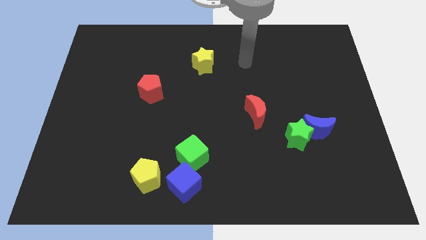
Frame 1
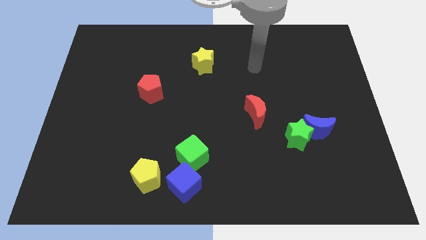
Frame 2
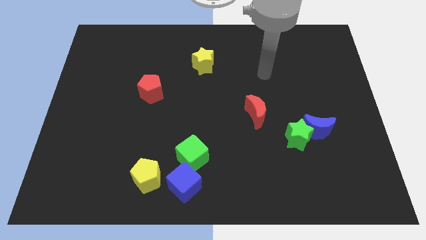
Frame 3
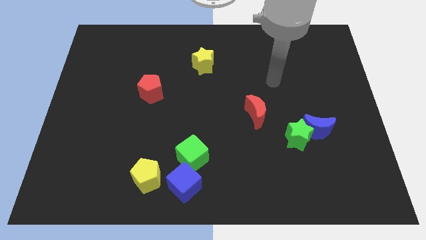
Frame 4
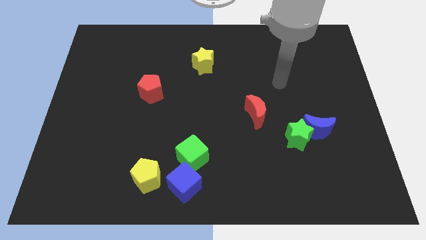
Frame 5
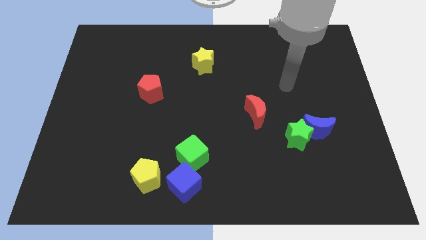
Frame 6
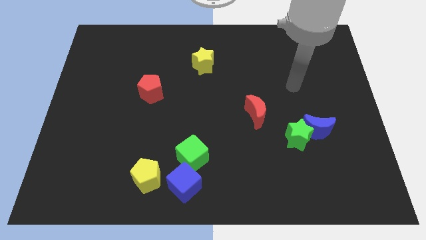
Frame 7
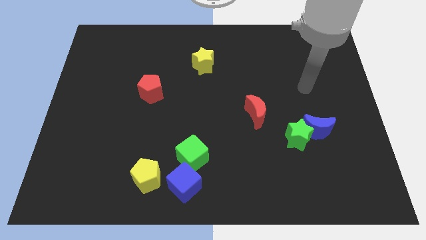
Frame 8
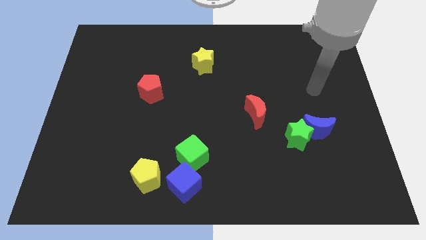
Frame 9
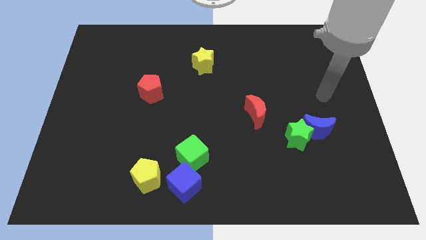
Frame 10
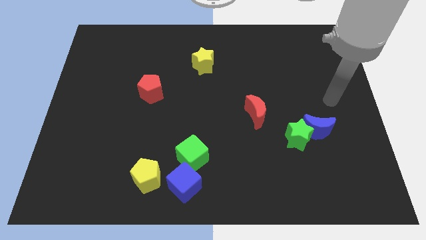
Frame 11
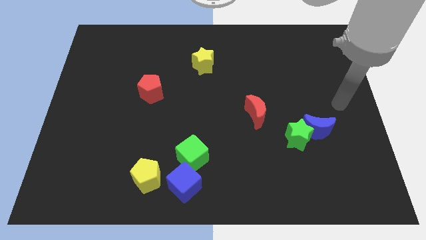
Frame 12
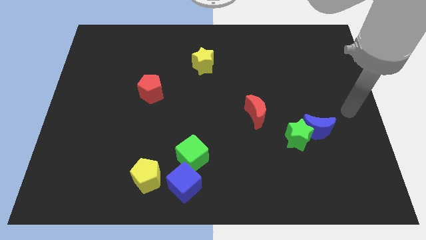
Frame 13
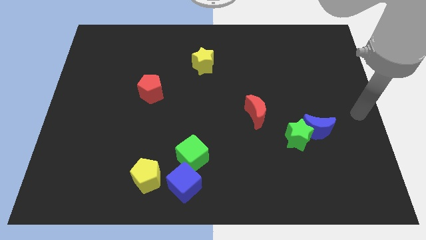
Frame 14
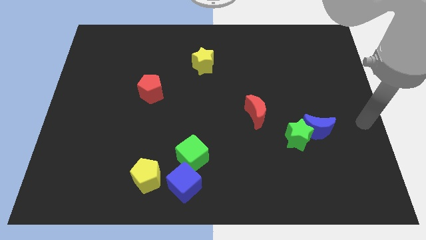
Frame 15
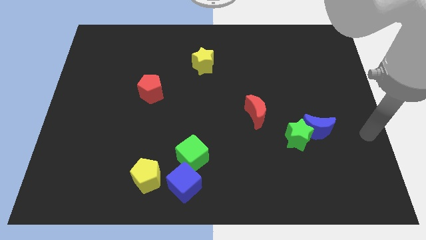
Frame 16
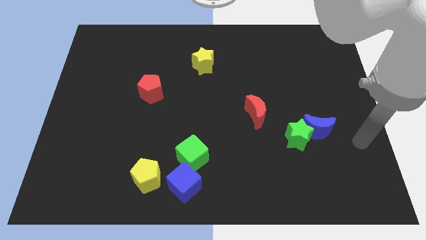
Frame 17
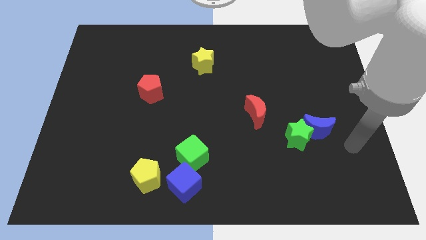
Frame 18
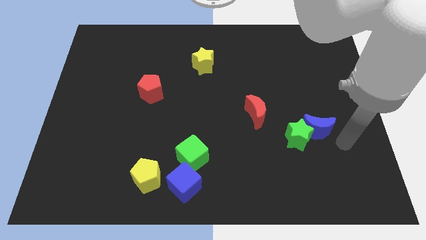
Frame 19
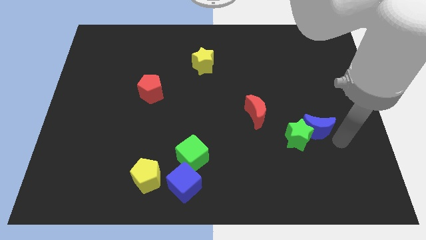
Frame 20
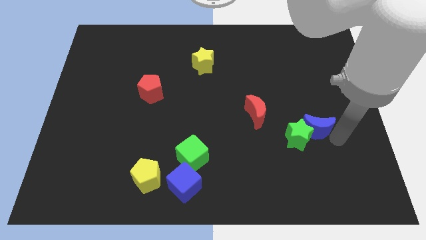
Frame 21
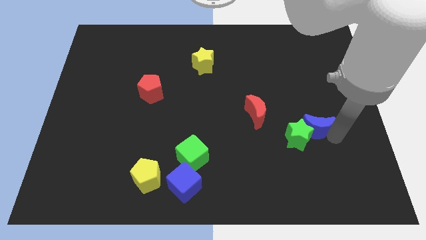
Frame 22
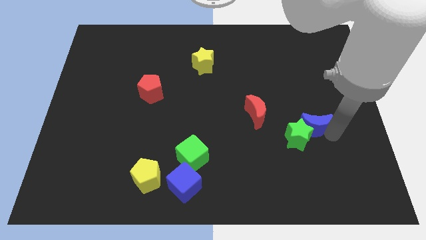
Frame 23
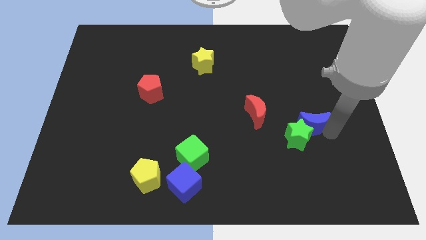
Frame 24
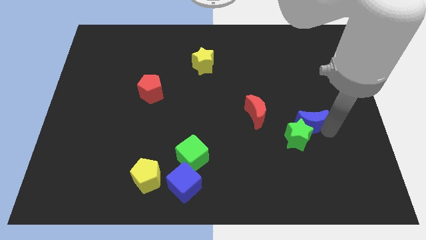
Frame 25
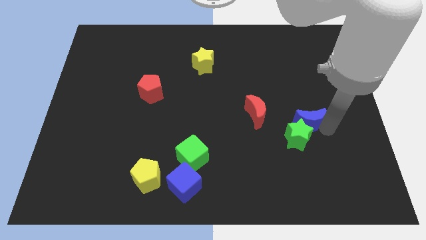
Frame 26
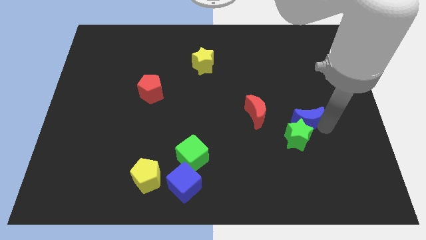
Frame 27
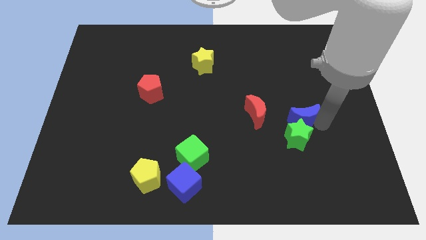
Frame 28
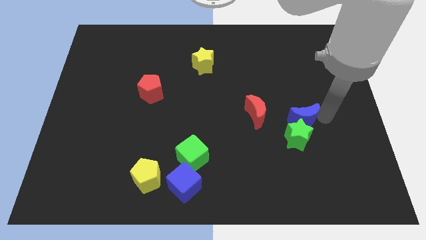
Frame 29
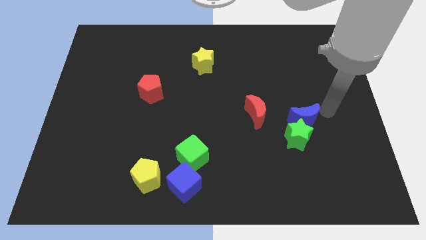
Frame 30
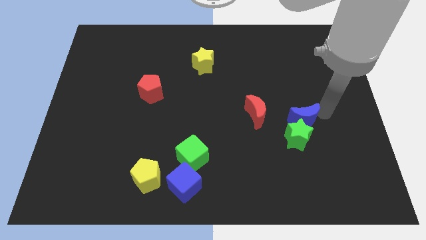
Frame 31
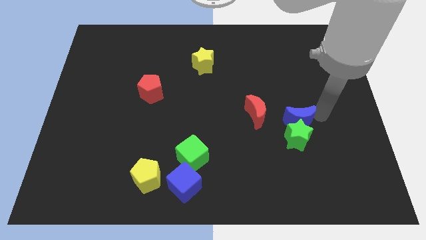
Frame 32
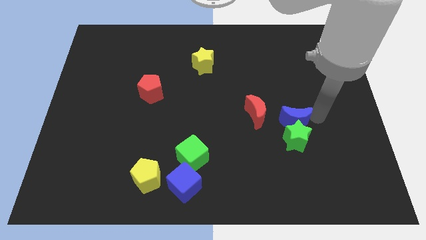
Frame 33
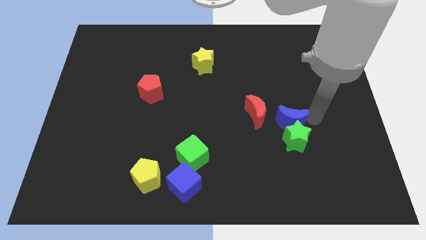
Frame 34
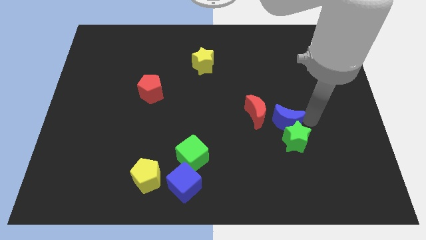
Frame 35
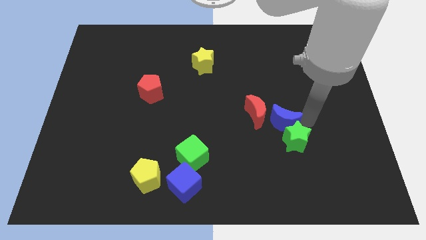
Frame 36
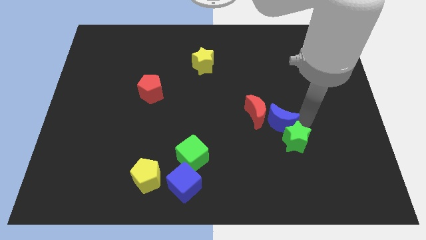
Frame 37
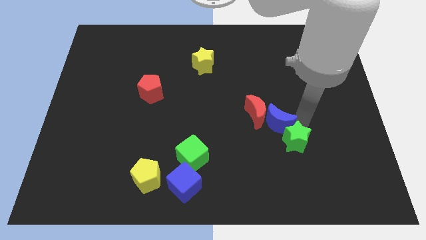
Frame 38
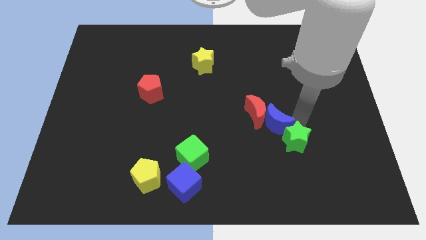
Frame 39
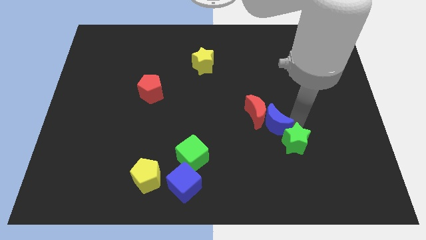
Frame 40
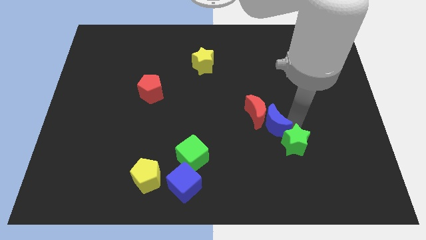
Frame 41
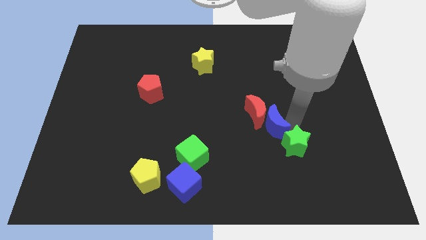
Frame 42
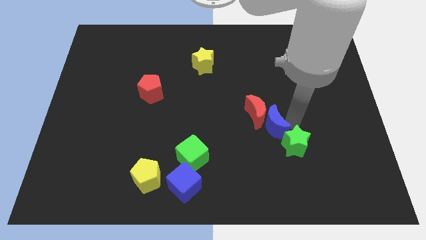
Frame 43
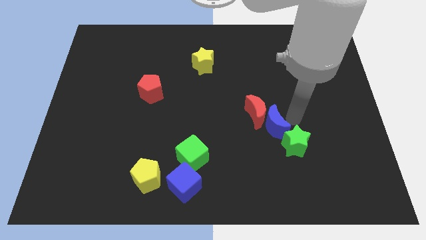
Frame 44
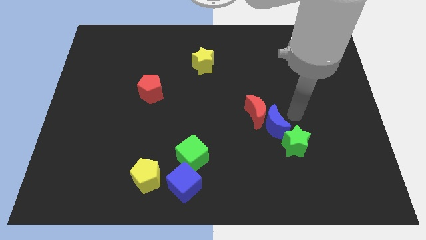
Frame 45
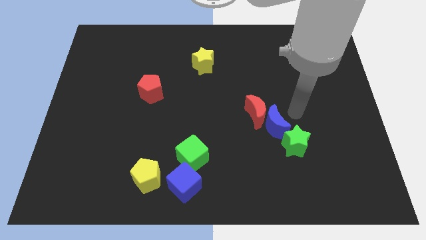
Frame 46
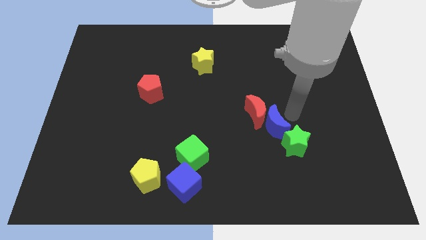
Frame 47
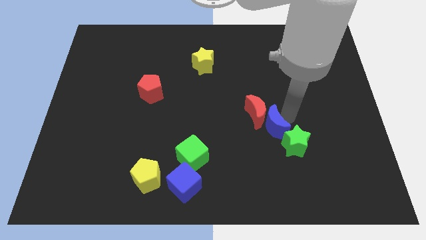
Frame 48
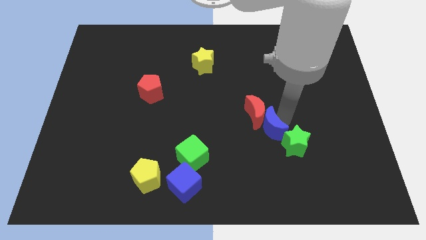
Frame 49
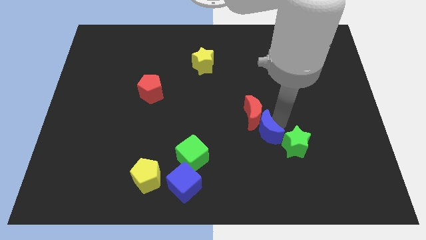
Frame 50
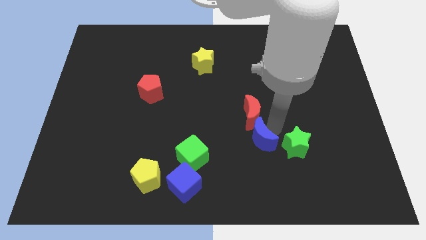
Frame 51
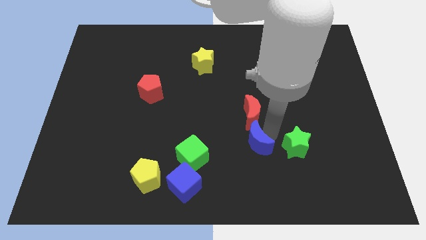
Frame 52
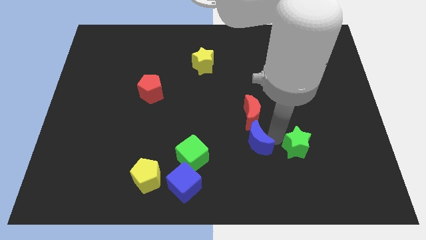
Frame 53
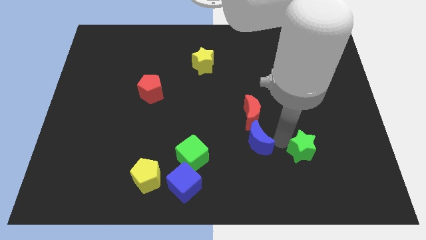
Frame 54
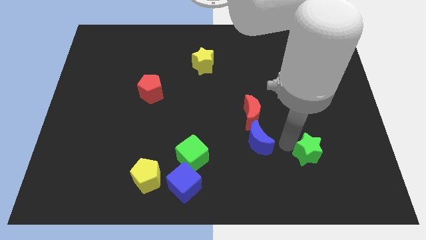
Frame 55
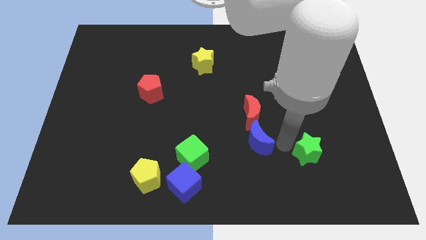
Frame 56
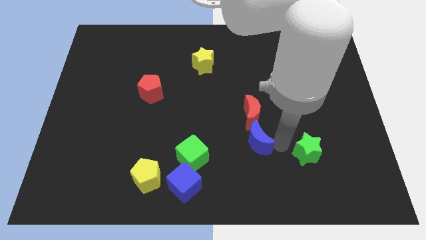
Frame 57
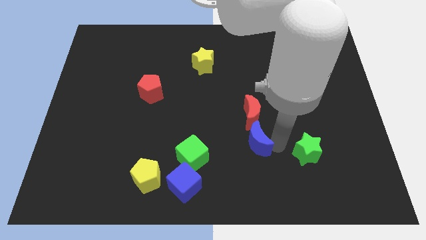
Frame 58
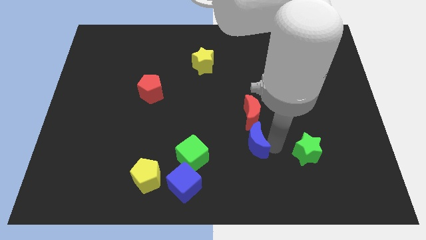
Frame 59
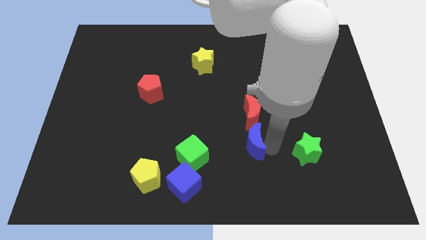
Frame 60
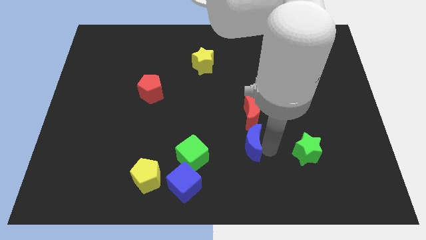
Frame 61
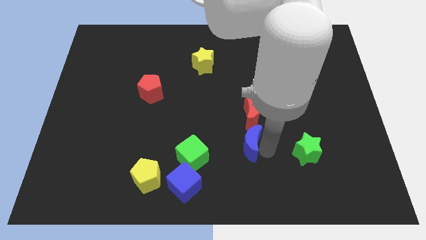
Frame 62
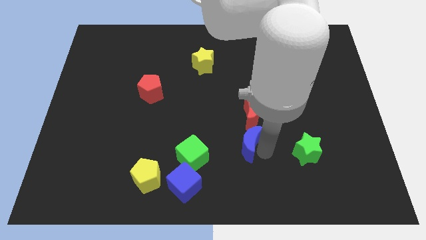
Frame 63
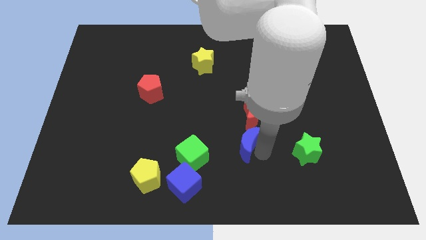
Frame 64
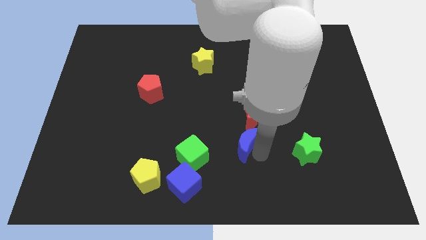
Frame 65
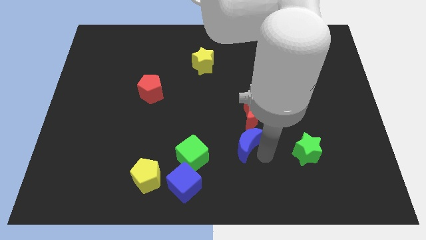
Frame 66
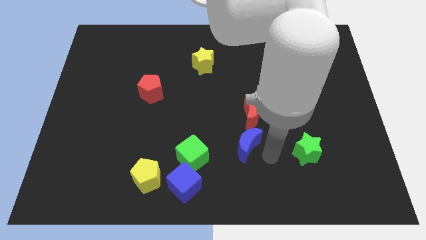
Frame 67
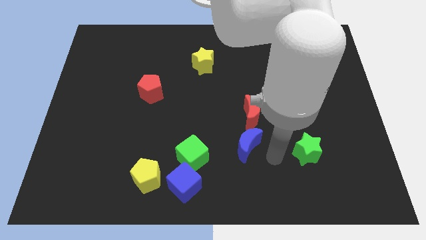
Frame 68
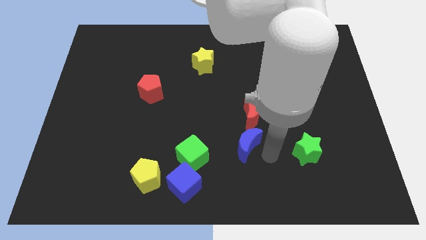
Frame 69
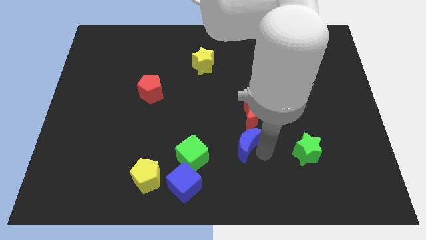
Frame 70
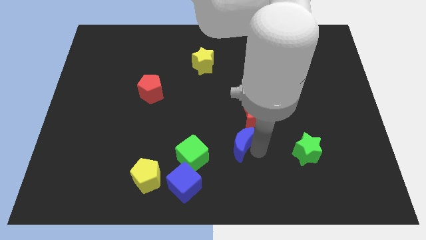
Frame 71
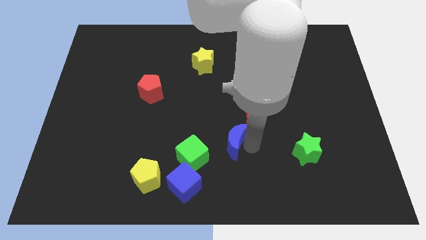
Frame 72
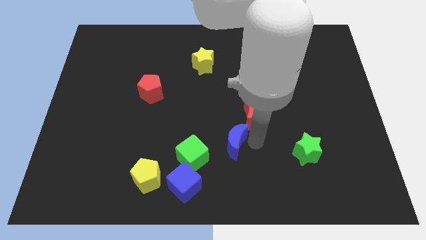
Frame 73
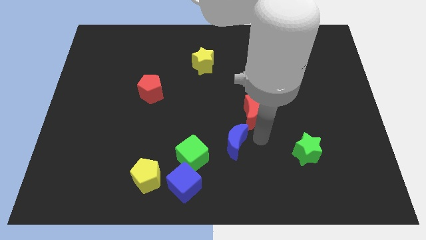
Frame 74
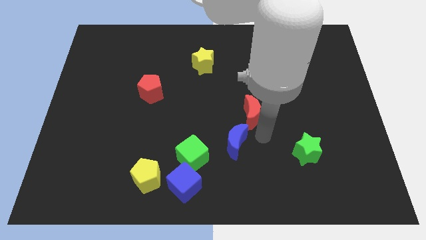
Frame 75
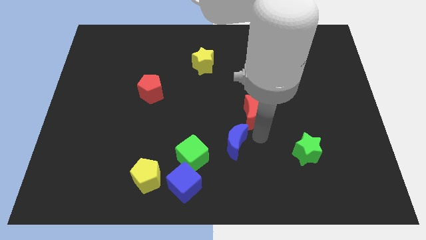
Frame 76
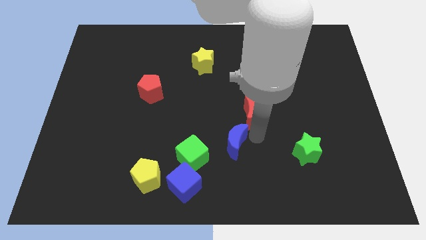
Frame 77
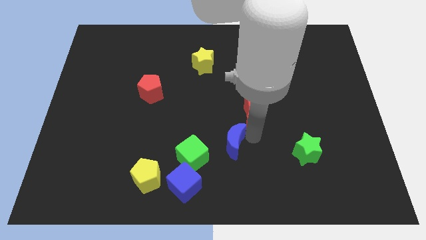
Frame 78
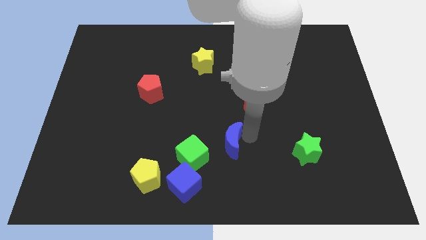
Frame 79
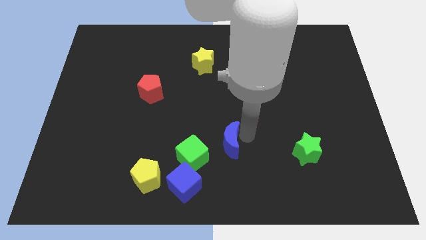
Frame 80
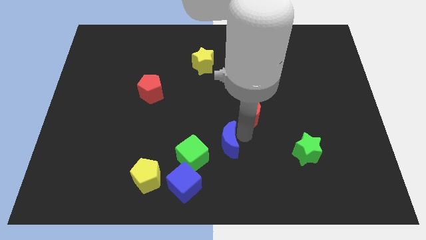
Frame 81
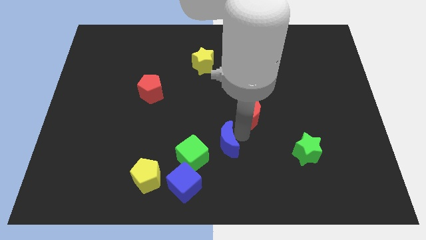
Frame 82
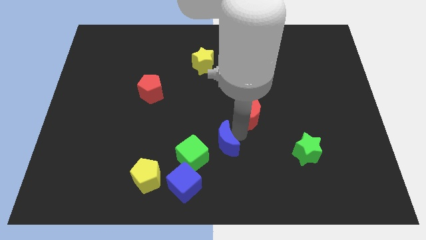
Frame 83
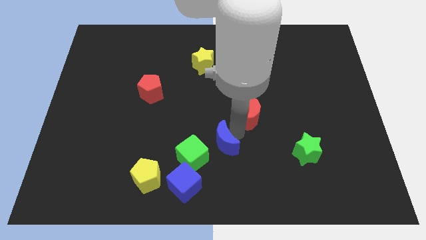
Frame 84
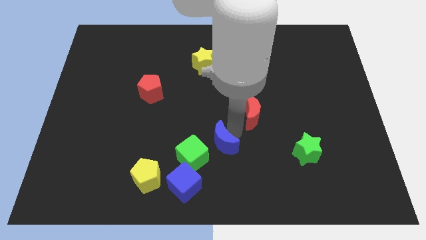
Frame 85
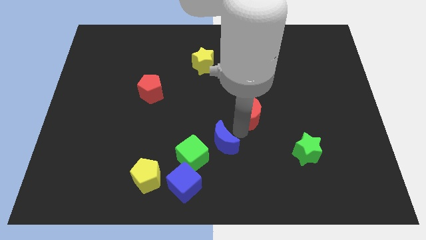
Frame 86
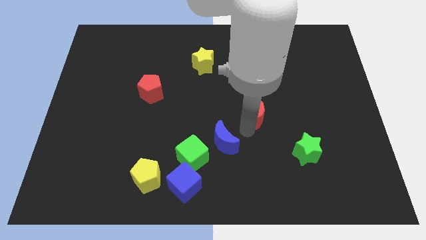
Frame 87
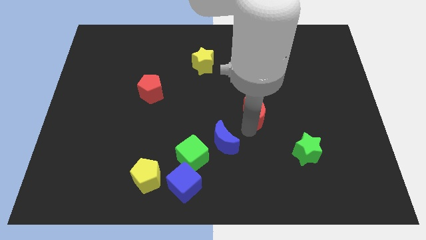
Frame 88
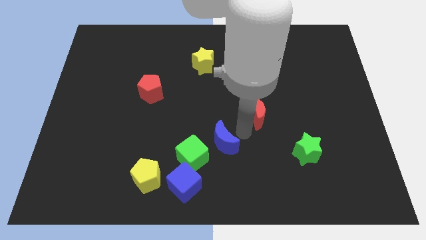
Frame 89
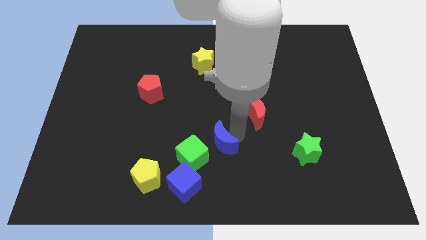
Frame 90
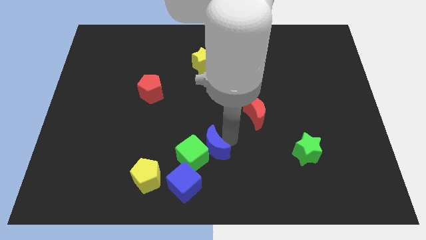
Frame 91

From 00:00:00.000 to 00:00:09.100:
put the blue moon close to the green cube
